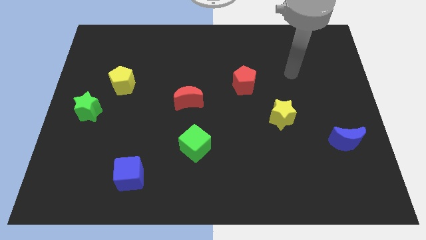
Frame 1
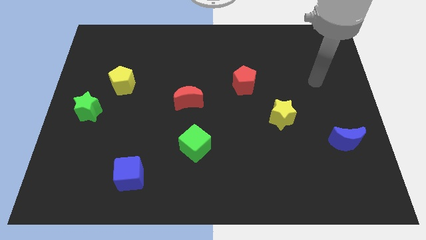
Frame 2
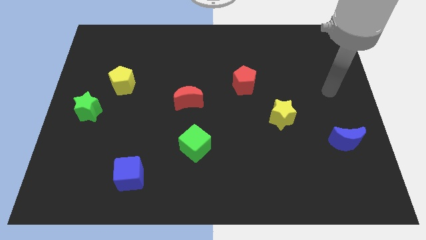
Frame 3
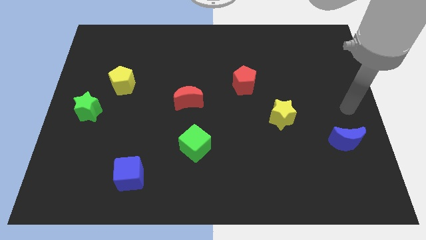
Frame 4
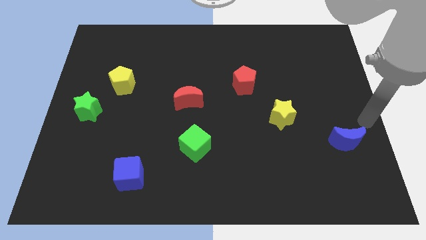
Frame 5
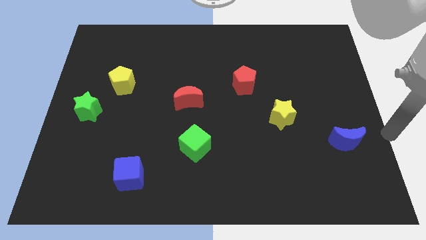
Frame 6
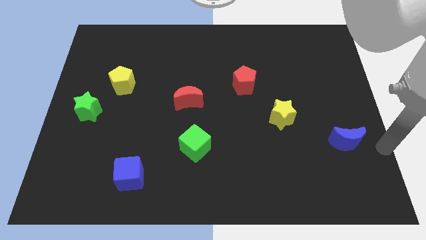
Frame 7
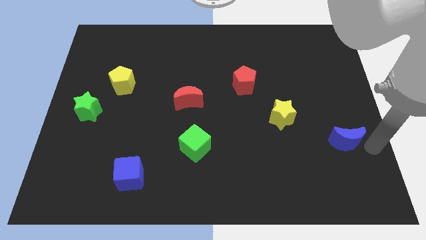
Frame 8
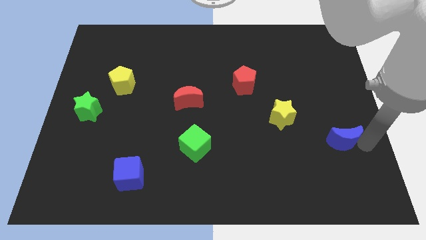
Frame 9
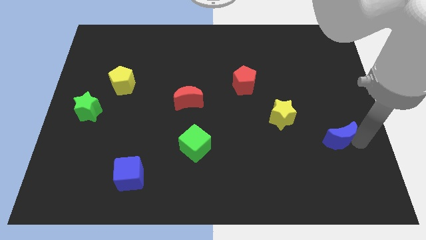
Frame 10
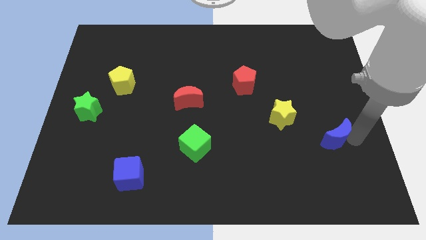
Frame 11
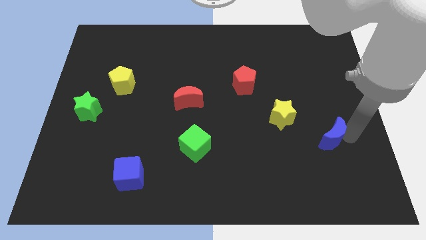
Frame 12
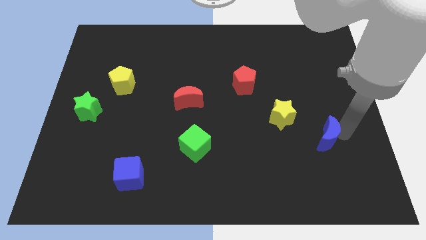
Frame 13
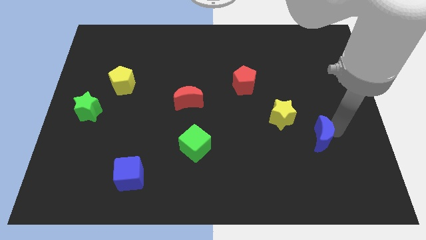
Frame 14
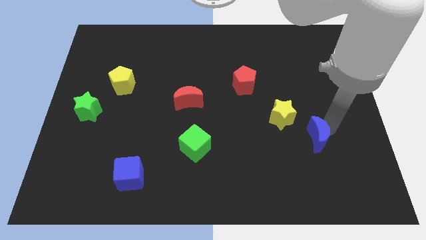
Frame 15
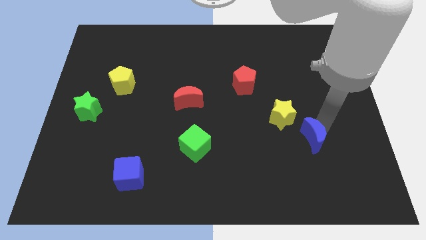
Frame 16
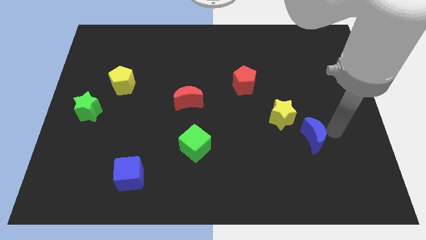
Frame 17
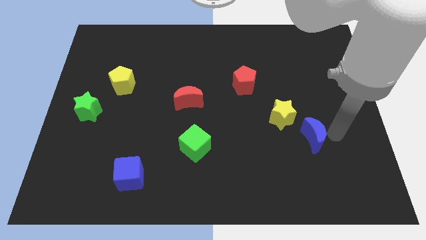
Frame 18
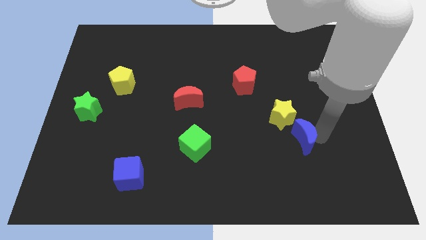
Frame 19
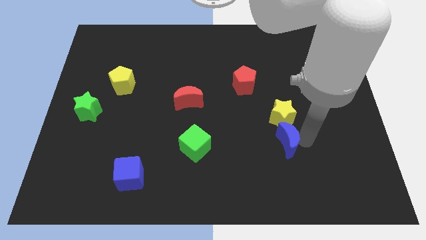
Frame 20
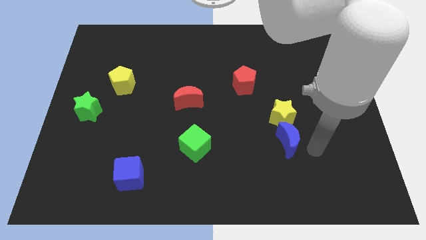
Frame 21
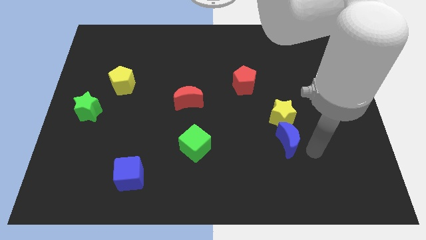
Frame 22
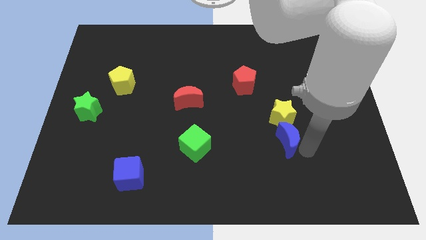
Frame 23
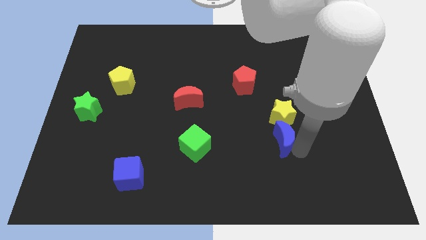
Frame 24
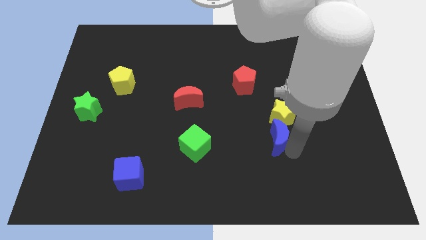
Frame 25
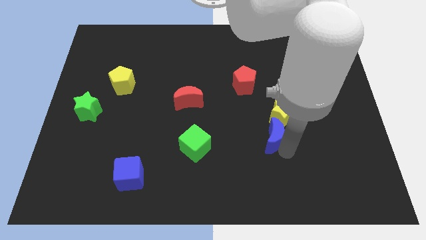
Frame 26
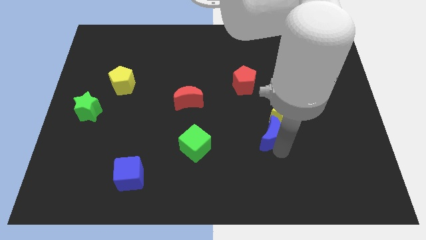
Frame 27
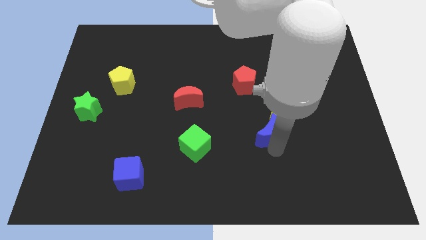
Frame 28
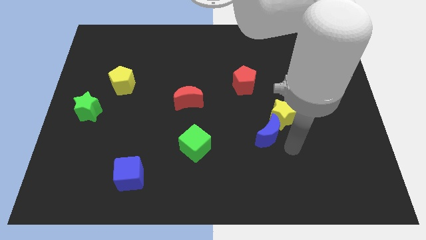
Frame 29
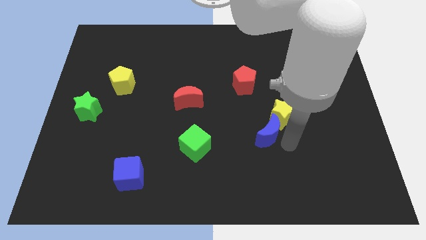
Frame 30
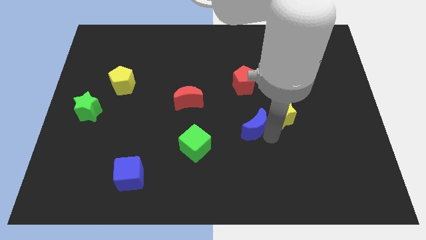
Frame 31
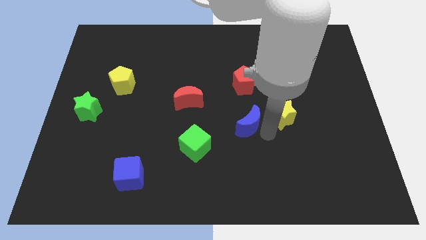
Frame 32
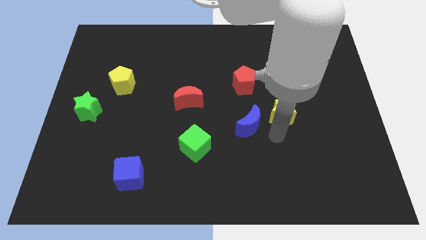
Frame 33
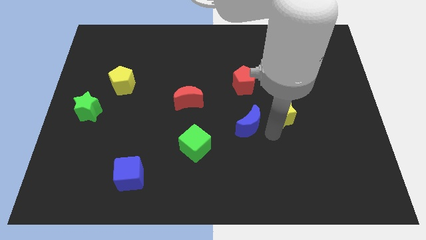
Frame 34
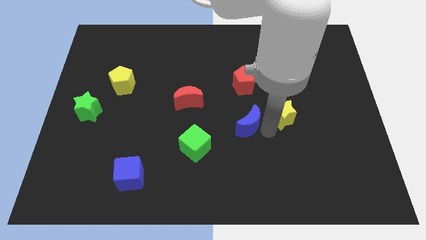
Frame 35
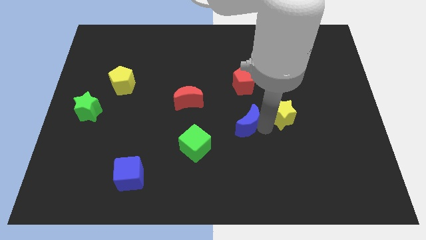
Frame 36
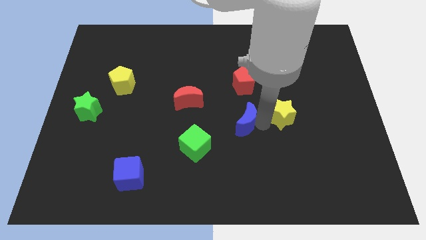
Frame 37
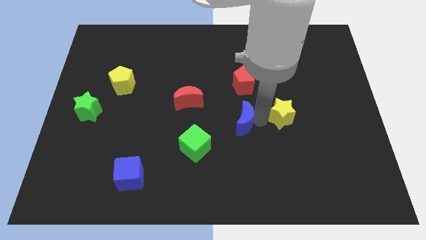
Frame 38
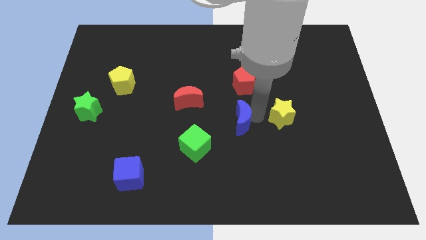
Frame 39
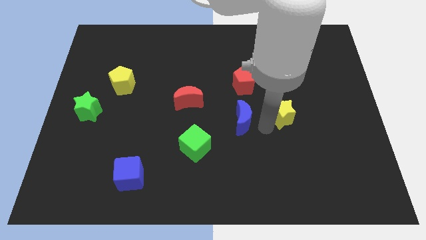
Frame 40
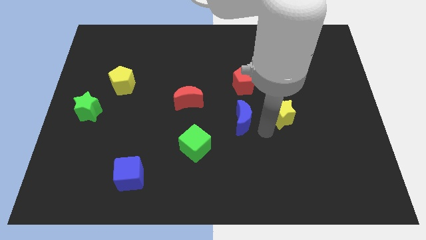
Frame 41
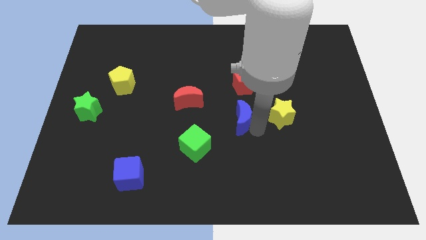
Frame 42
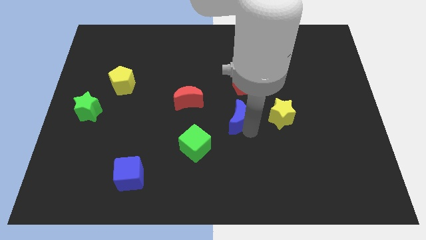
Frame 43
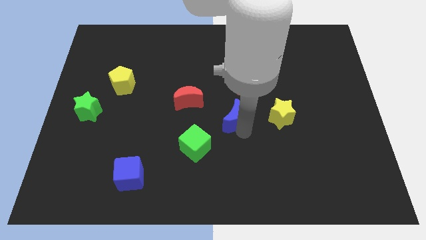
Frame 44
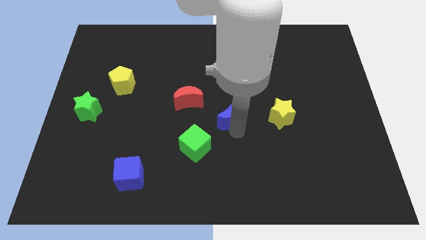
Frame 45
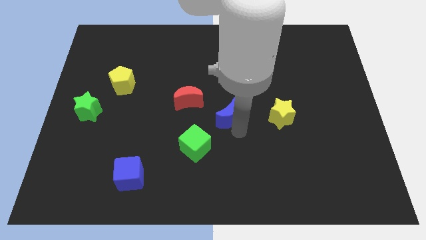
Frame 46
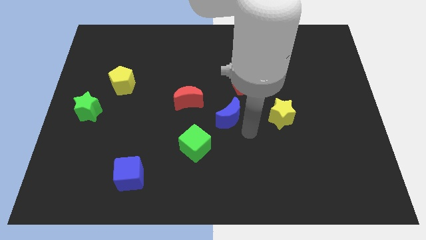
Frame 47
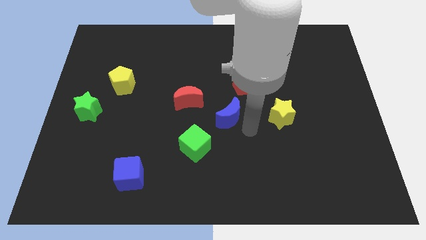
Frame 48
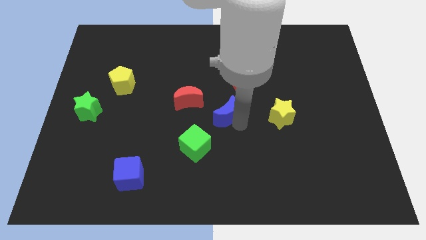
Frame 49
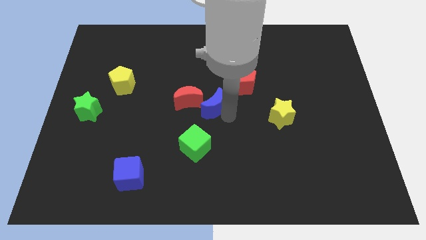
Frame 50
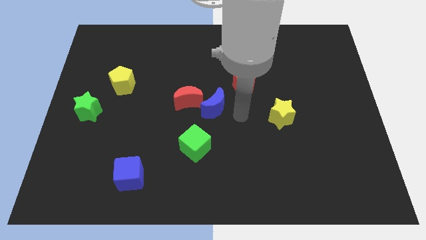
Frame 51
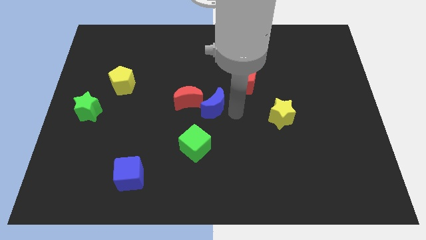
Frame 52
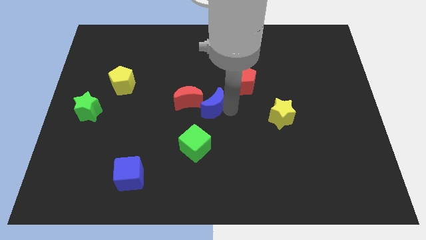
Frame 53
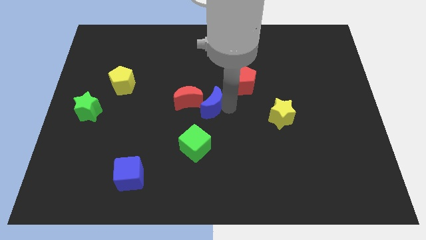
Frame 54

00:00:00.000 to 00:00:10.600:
put the blue moon towards the red moon

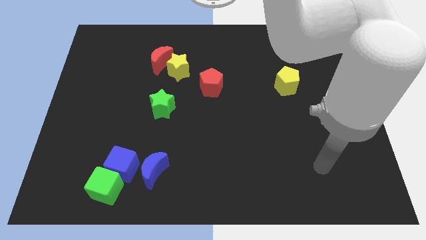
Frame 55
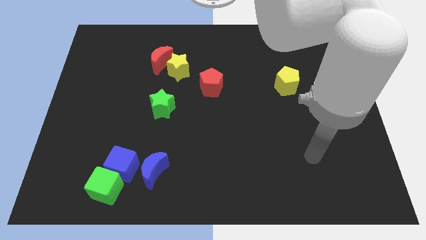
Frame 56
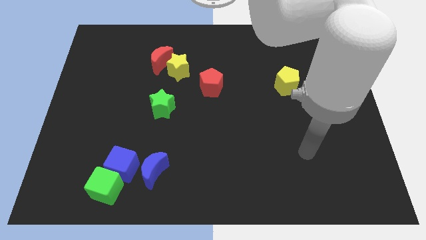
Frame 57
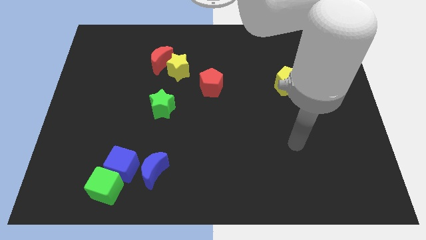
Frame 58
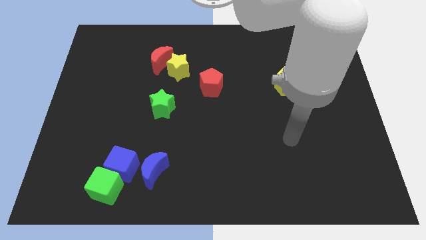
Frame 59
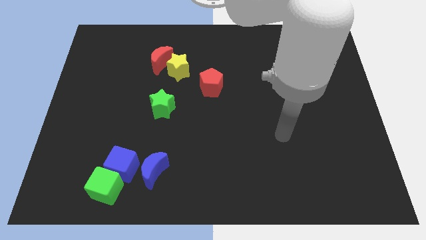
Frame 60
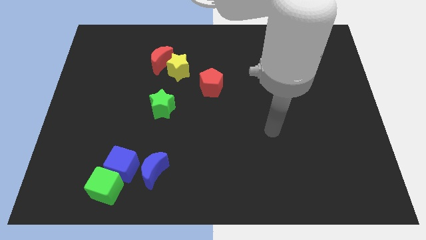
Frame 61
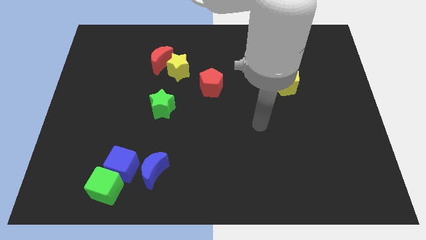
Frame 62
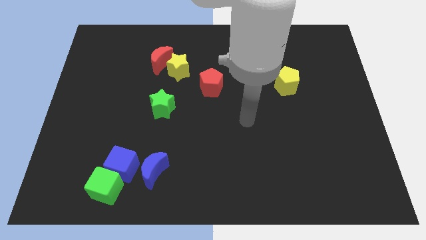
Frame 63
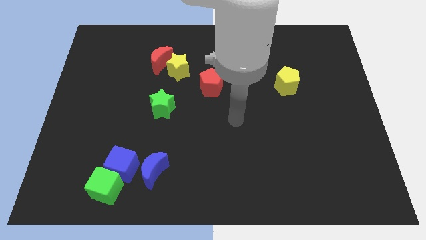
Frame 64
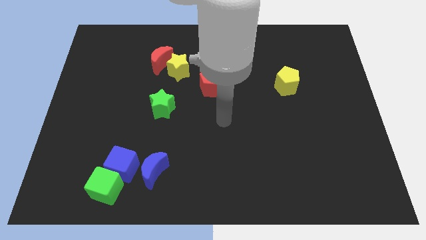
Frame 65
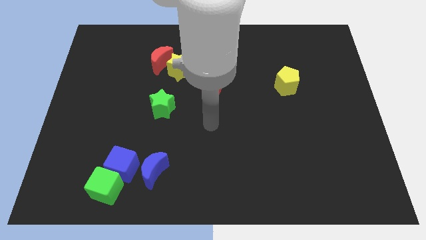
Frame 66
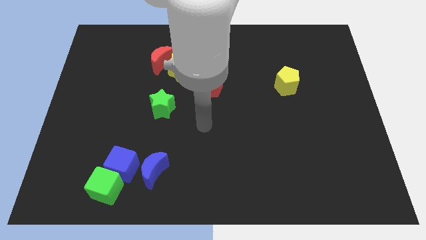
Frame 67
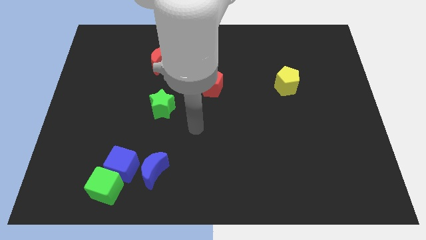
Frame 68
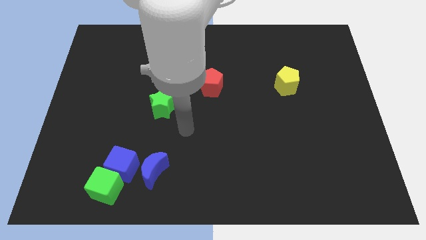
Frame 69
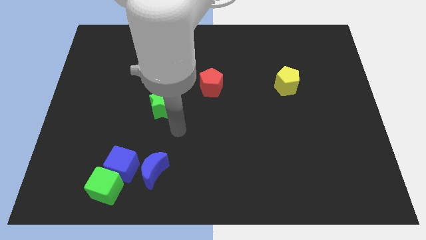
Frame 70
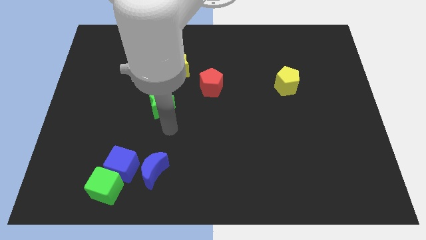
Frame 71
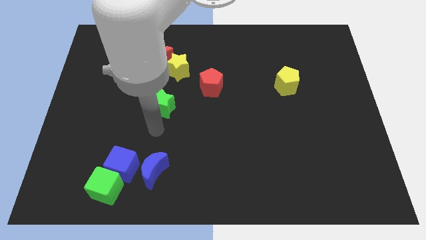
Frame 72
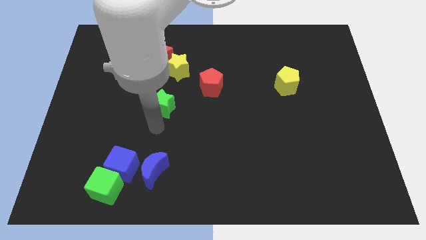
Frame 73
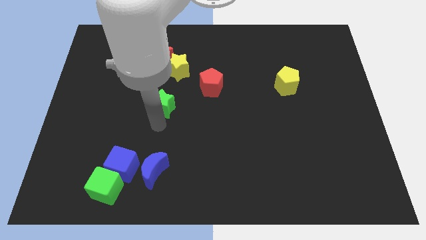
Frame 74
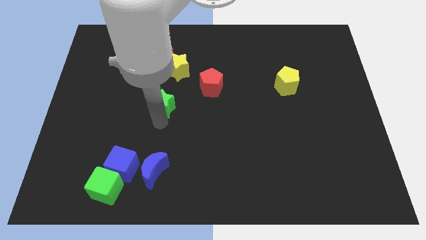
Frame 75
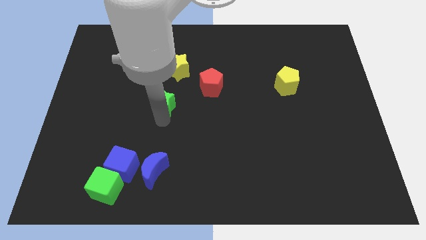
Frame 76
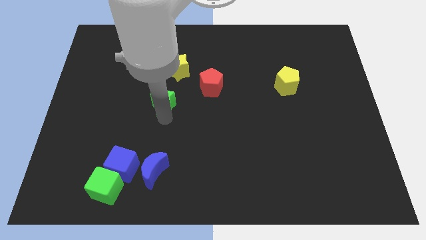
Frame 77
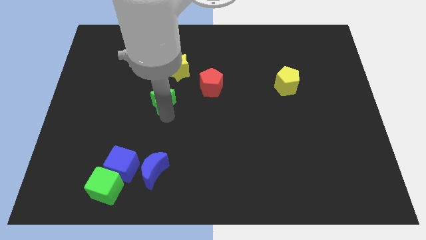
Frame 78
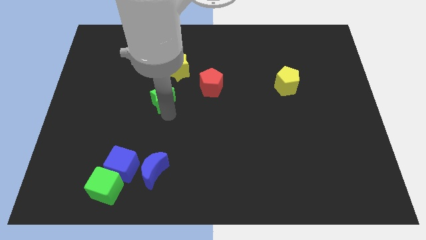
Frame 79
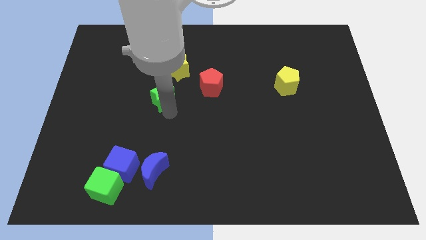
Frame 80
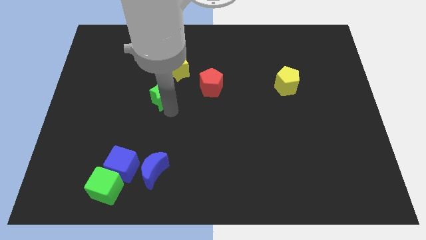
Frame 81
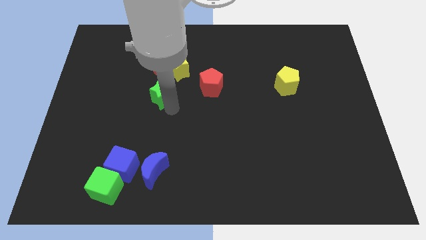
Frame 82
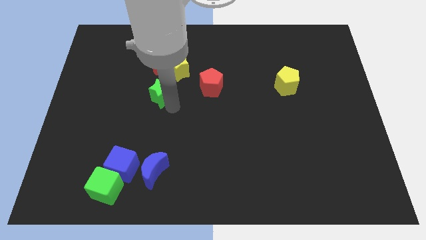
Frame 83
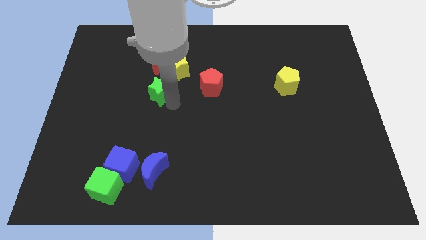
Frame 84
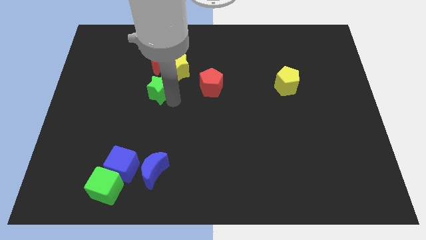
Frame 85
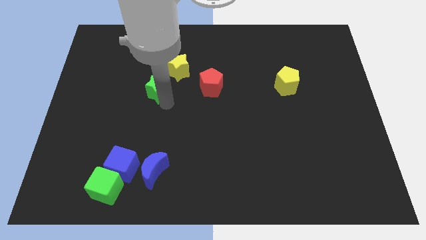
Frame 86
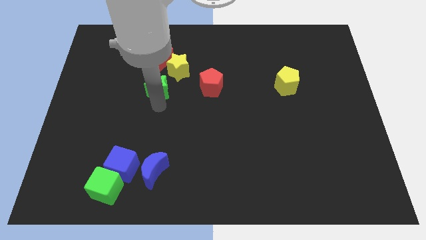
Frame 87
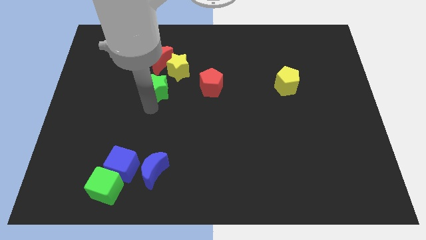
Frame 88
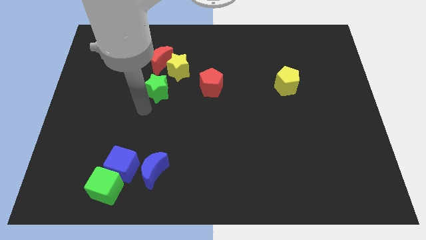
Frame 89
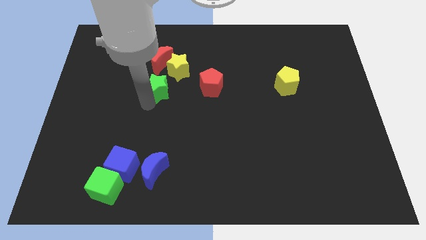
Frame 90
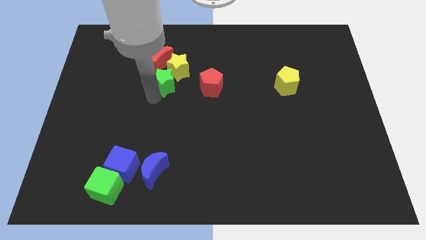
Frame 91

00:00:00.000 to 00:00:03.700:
move the green star towards the yellow star
